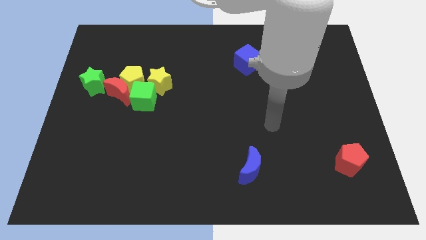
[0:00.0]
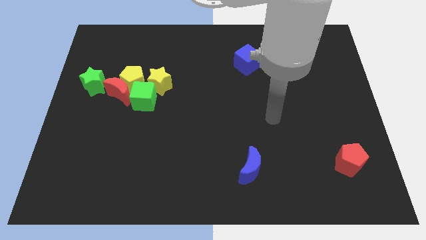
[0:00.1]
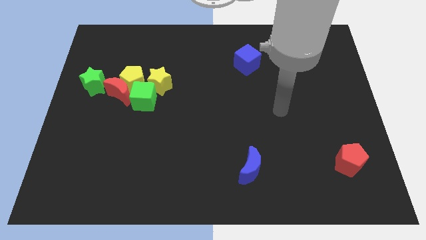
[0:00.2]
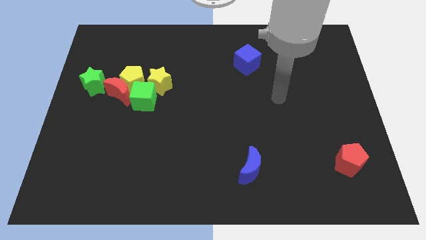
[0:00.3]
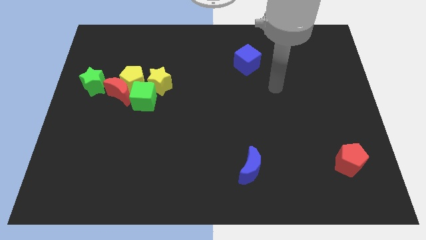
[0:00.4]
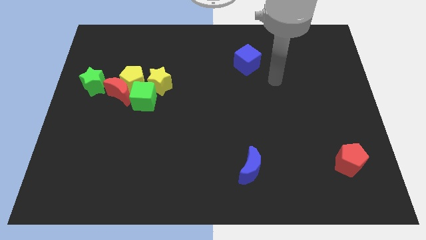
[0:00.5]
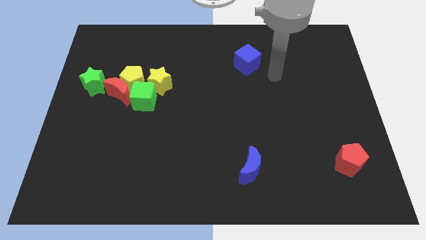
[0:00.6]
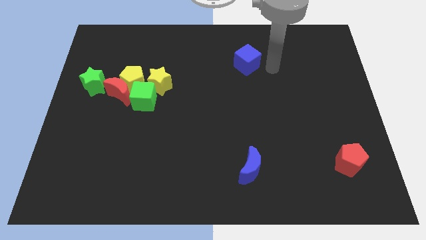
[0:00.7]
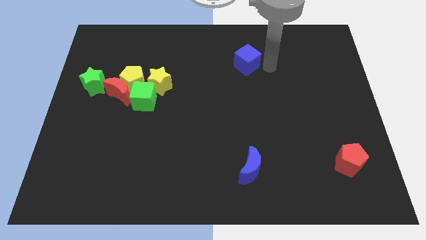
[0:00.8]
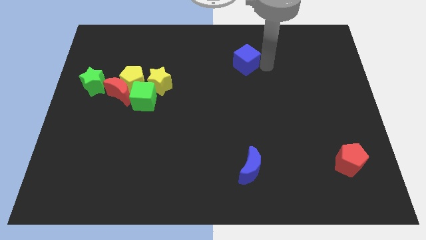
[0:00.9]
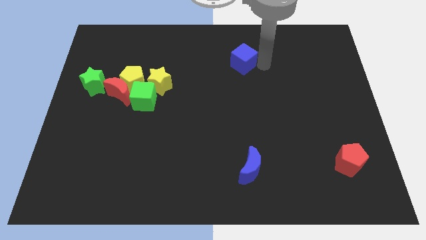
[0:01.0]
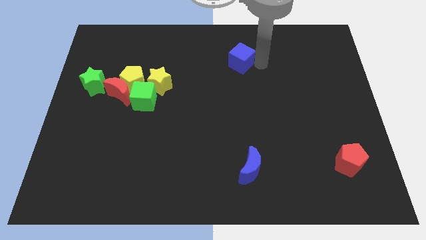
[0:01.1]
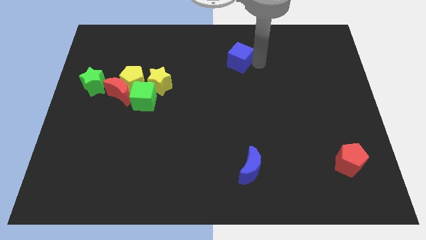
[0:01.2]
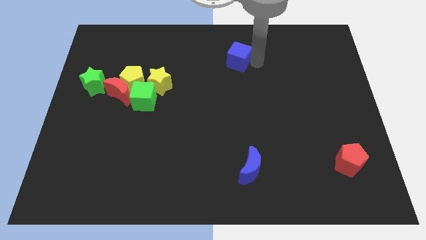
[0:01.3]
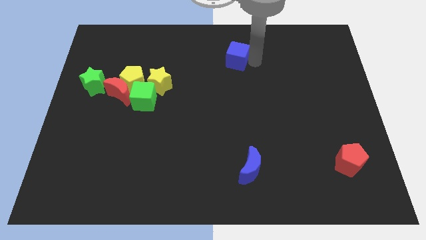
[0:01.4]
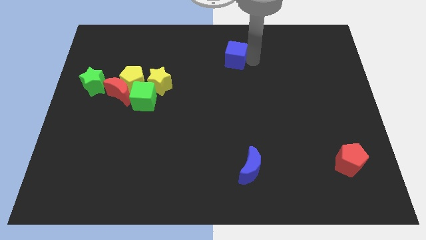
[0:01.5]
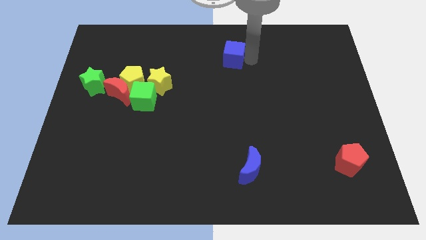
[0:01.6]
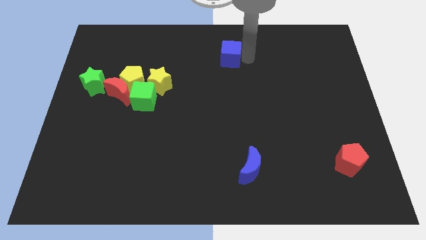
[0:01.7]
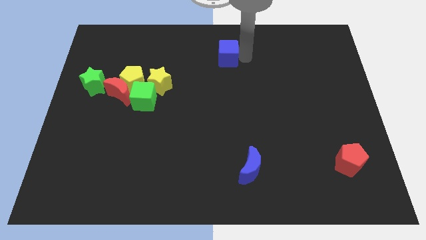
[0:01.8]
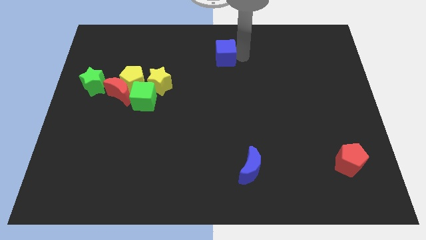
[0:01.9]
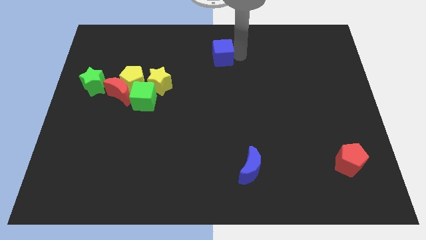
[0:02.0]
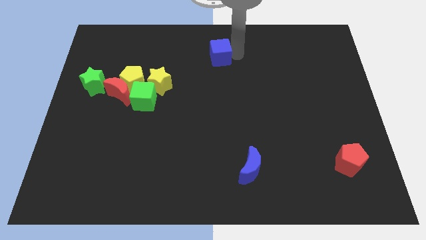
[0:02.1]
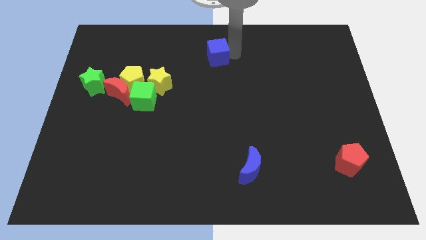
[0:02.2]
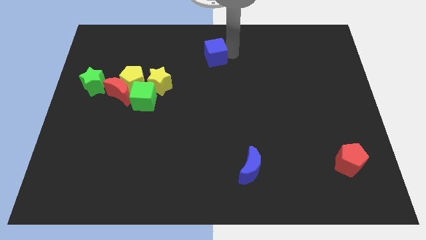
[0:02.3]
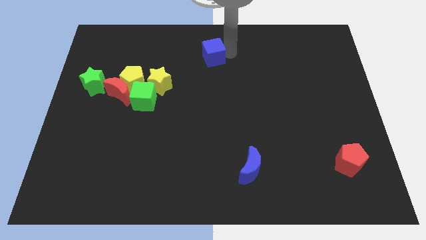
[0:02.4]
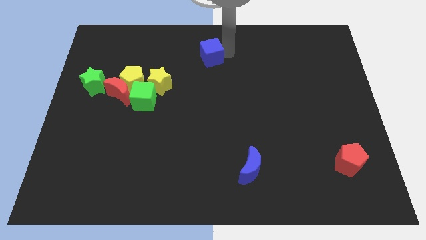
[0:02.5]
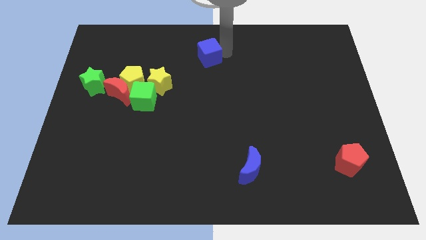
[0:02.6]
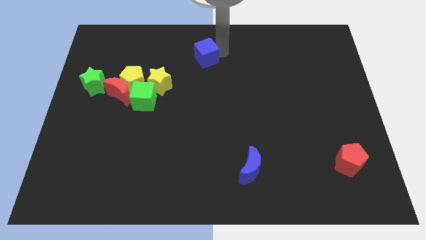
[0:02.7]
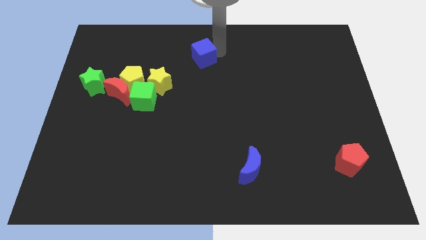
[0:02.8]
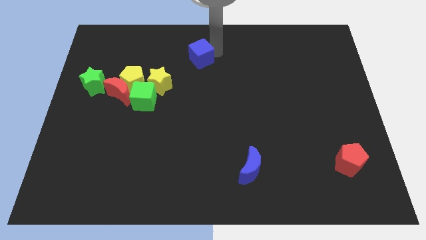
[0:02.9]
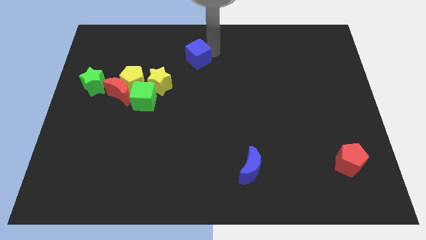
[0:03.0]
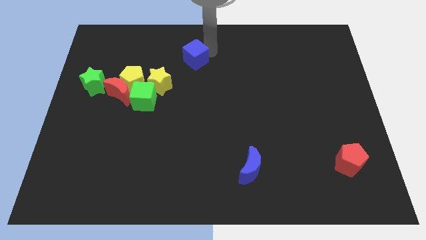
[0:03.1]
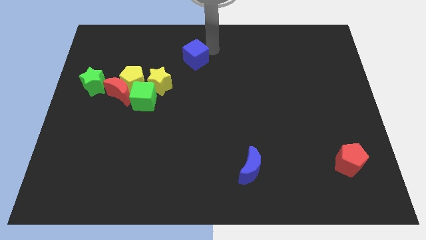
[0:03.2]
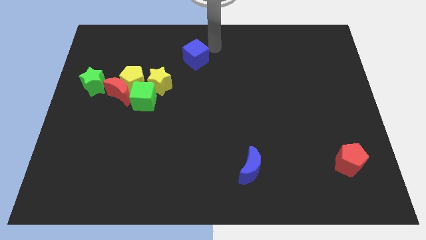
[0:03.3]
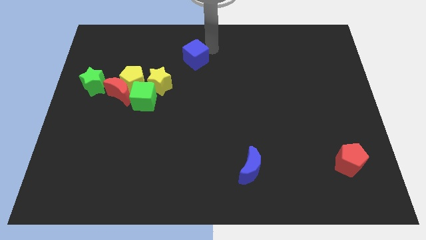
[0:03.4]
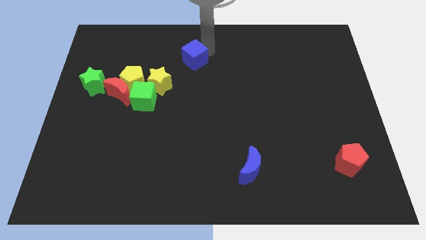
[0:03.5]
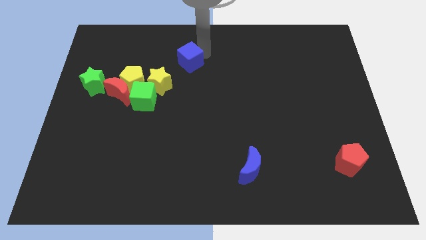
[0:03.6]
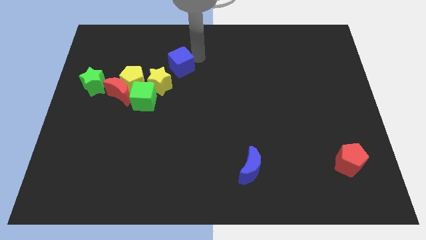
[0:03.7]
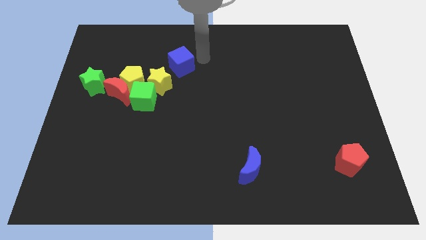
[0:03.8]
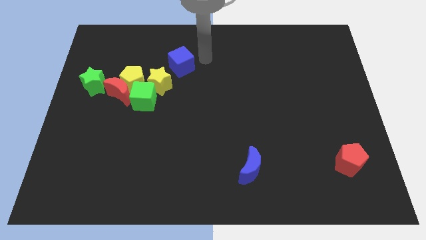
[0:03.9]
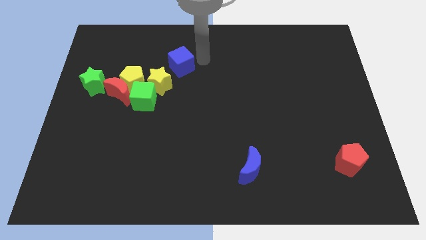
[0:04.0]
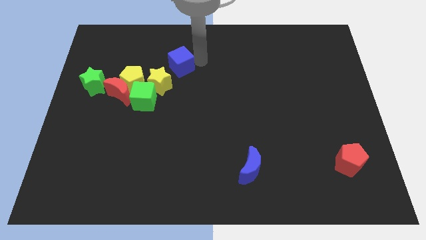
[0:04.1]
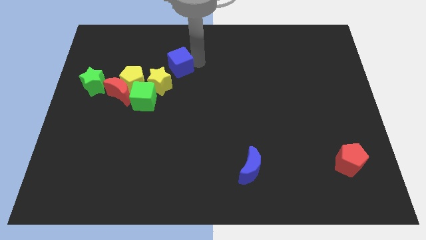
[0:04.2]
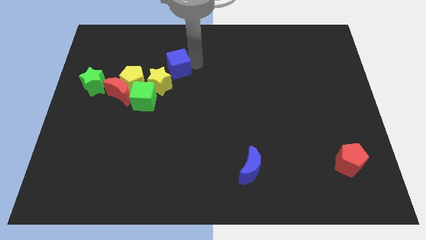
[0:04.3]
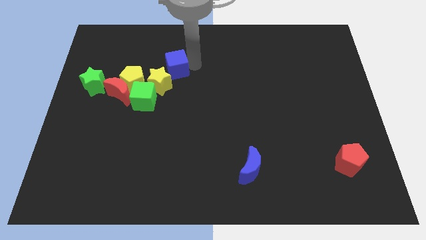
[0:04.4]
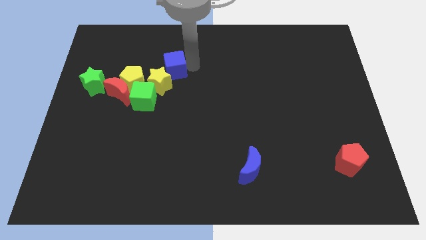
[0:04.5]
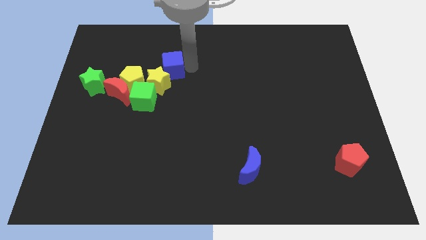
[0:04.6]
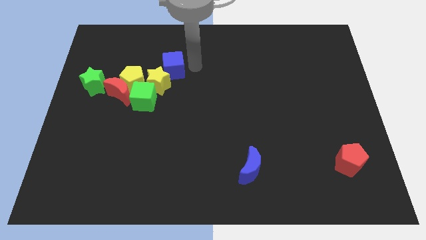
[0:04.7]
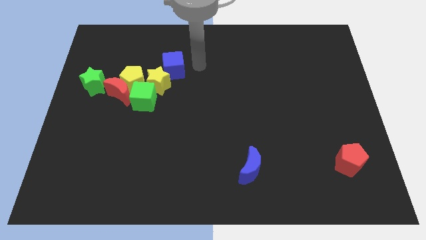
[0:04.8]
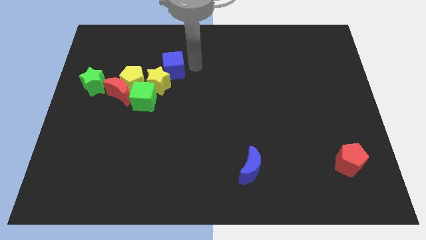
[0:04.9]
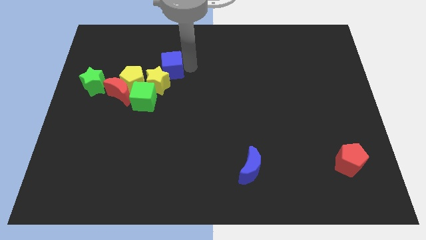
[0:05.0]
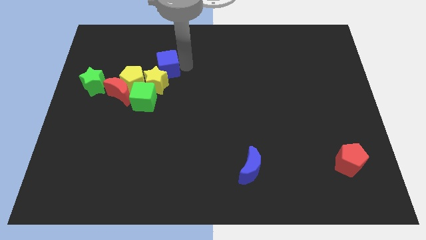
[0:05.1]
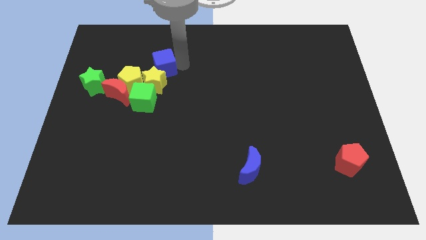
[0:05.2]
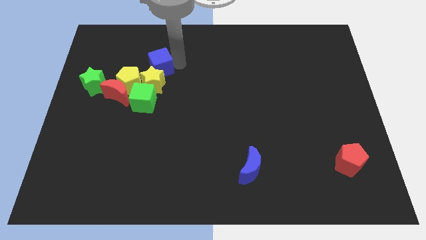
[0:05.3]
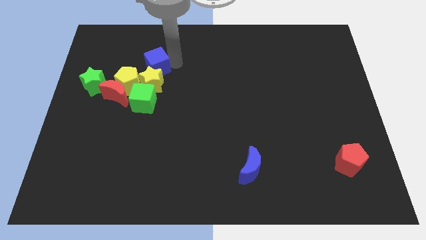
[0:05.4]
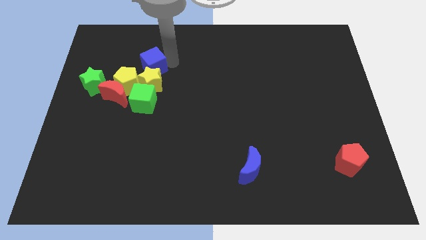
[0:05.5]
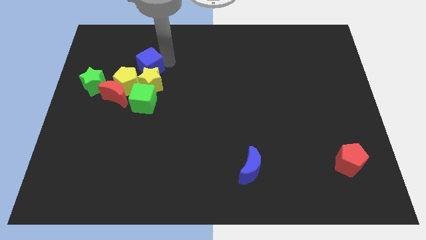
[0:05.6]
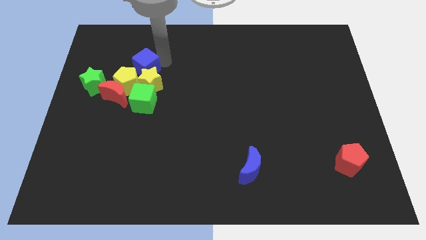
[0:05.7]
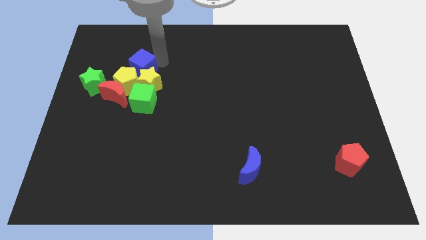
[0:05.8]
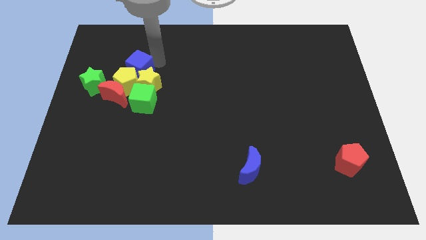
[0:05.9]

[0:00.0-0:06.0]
move the blue cube to the yellow pentagon
